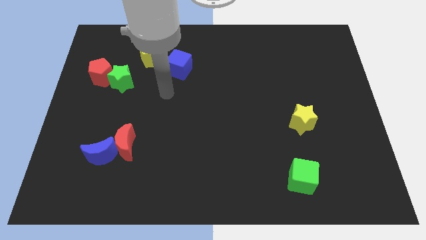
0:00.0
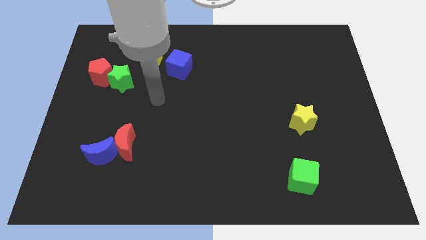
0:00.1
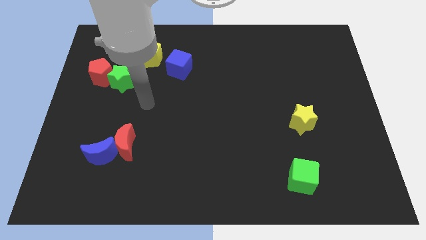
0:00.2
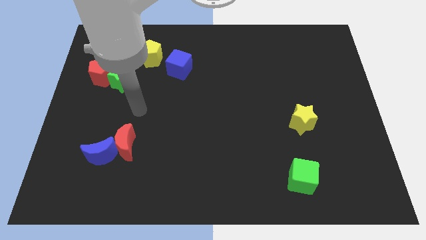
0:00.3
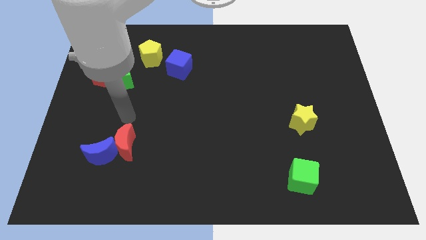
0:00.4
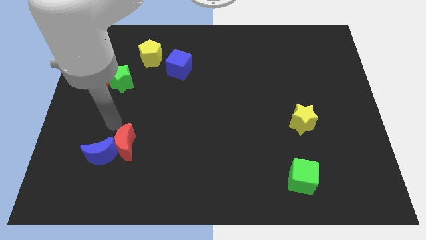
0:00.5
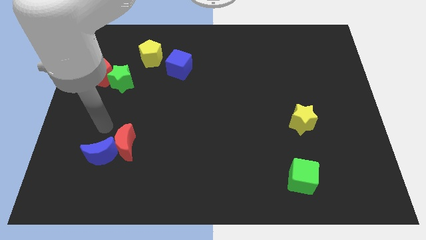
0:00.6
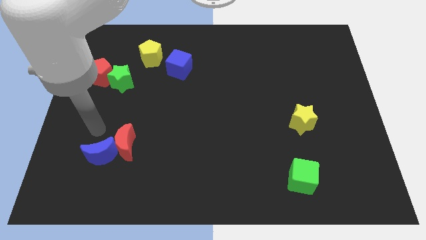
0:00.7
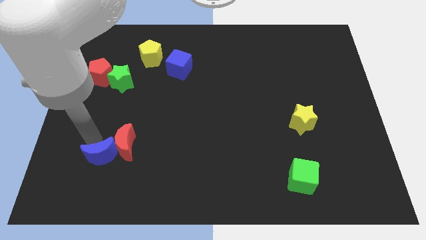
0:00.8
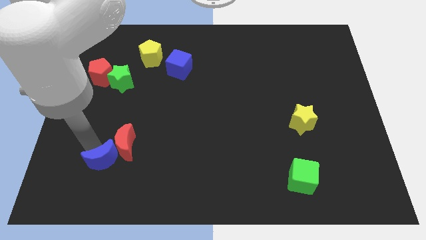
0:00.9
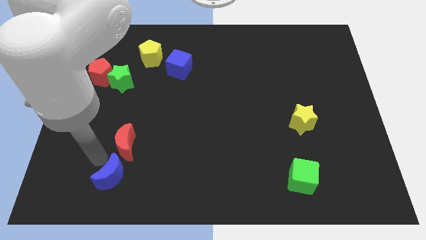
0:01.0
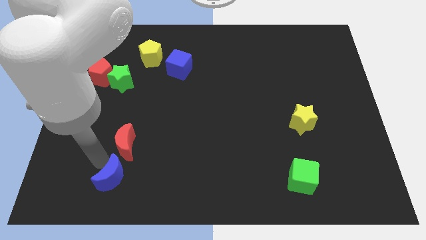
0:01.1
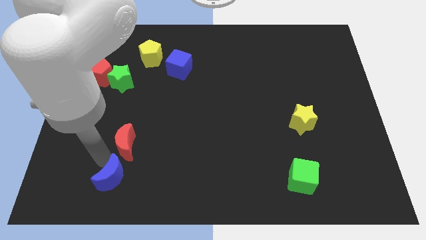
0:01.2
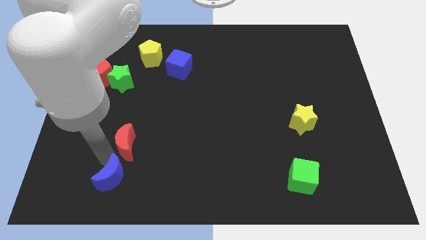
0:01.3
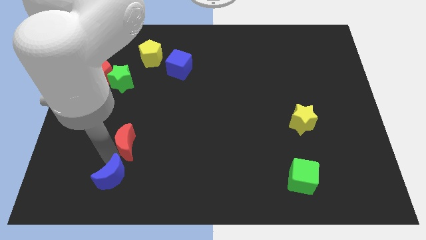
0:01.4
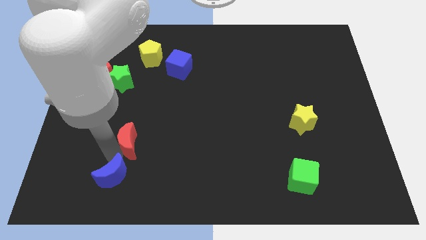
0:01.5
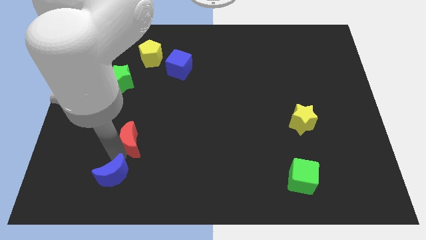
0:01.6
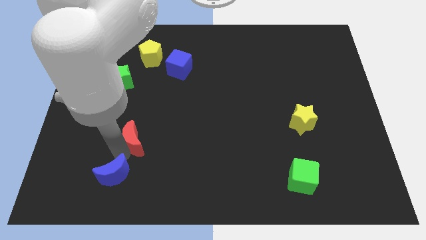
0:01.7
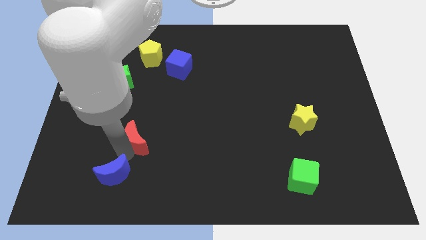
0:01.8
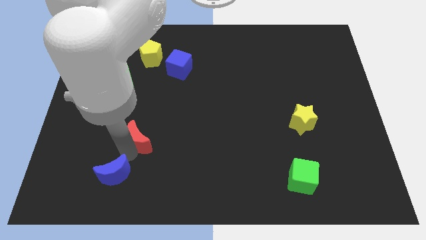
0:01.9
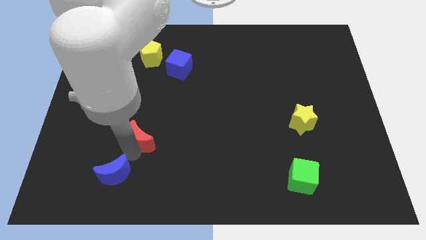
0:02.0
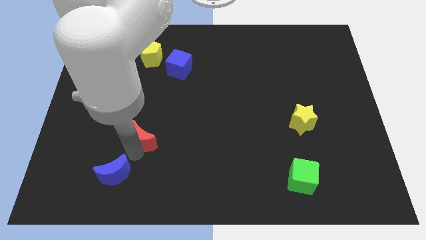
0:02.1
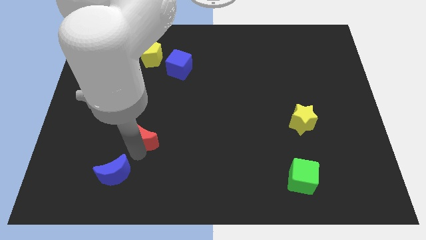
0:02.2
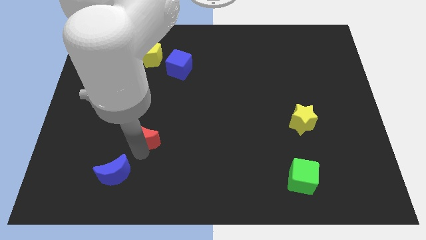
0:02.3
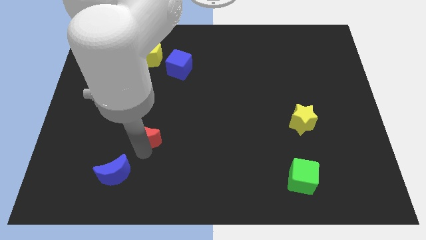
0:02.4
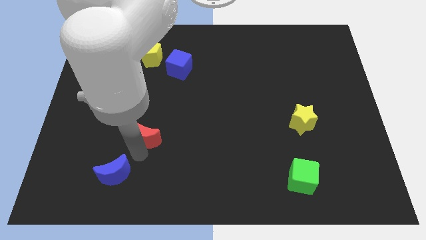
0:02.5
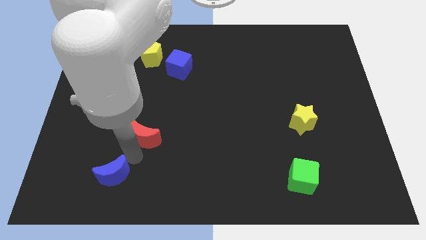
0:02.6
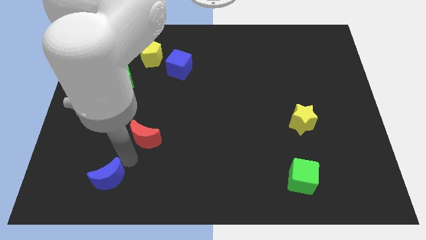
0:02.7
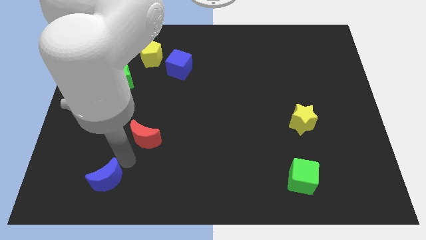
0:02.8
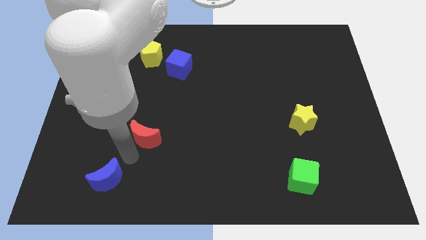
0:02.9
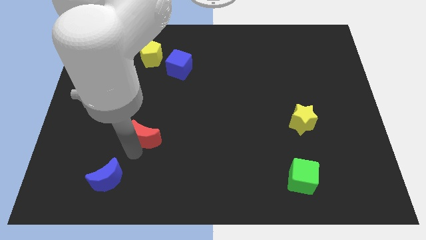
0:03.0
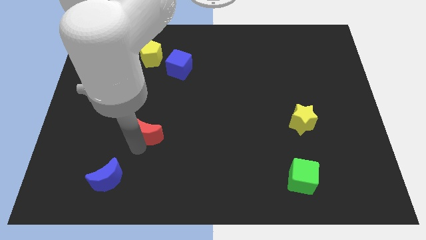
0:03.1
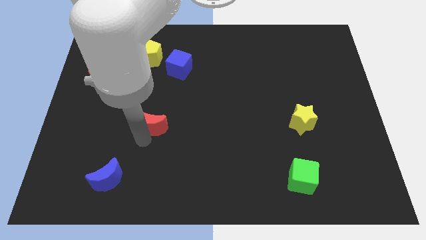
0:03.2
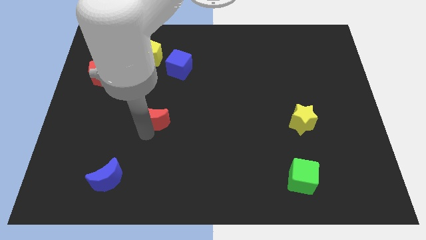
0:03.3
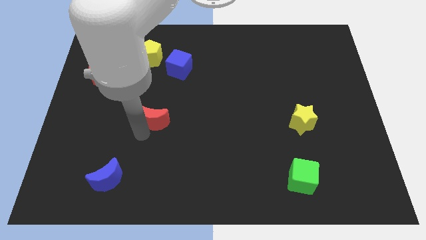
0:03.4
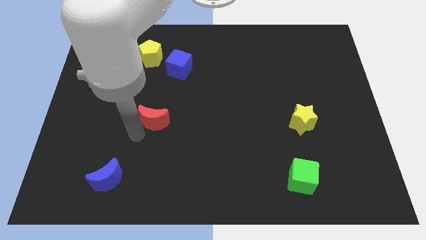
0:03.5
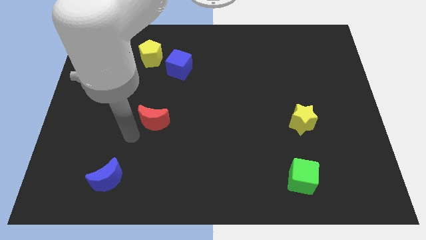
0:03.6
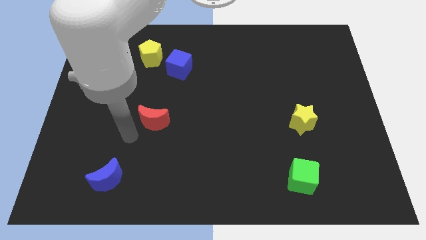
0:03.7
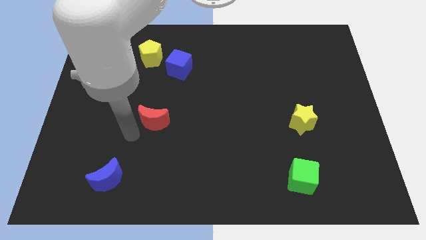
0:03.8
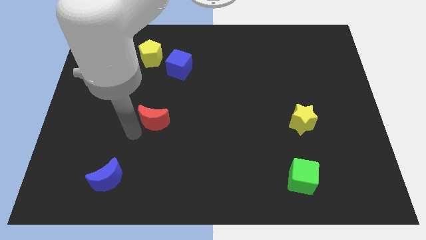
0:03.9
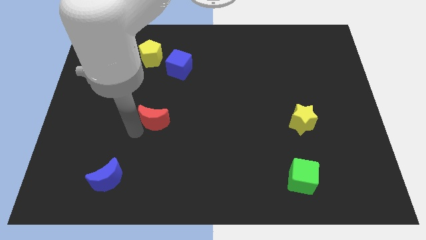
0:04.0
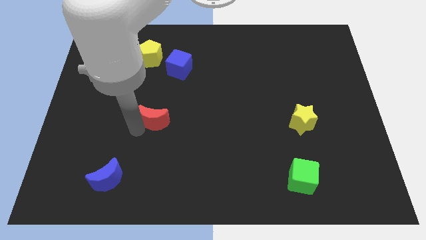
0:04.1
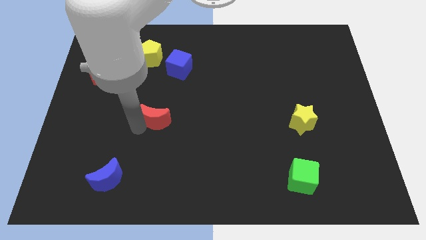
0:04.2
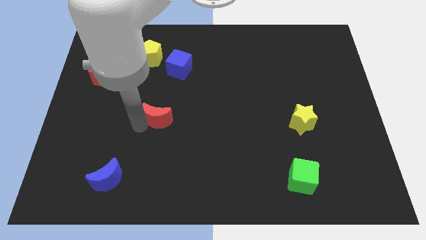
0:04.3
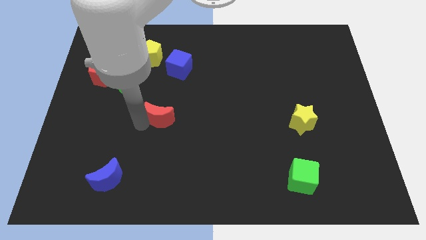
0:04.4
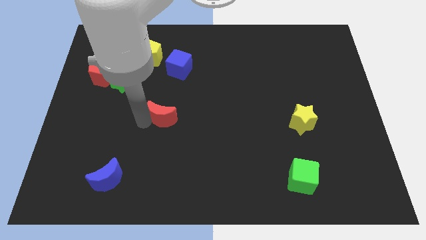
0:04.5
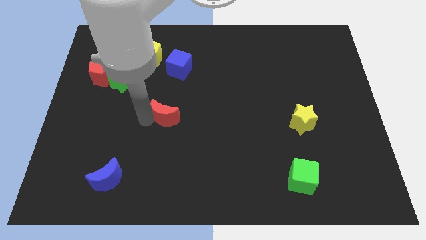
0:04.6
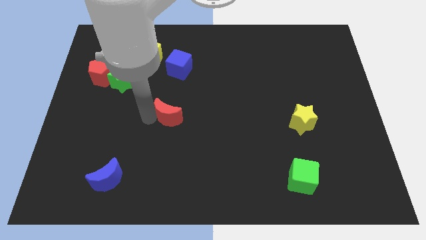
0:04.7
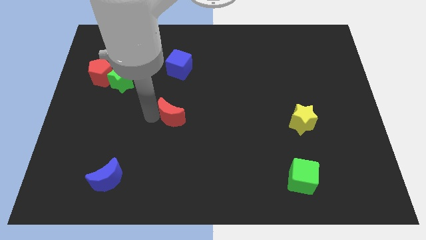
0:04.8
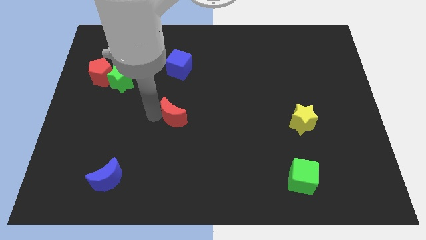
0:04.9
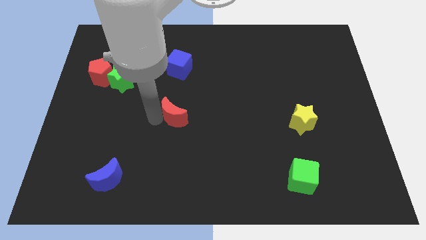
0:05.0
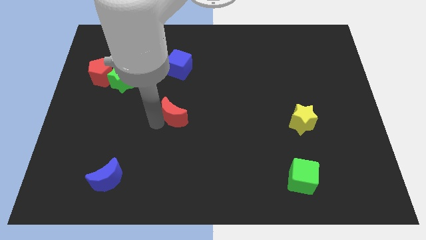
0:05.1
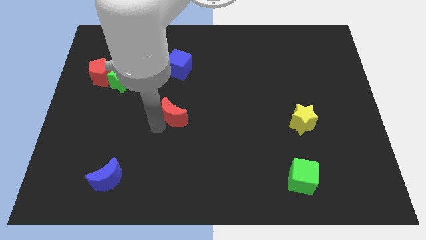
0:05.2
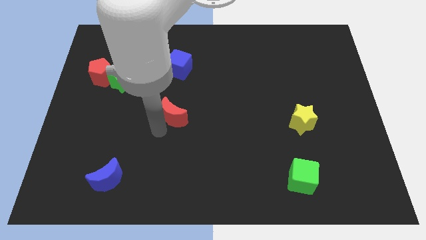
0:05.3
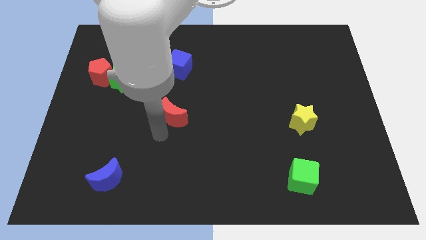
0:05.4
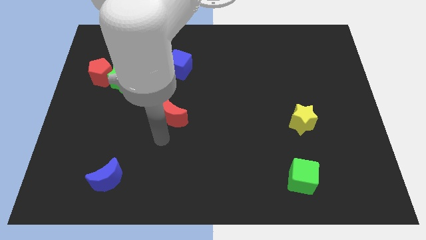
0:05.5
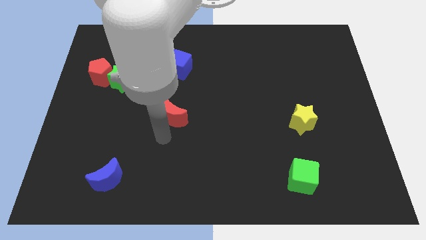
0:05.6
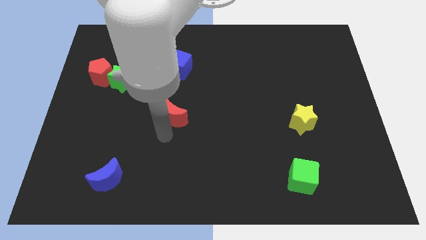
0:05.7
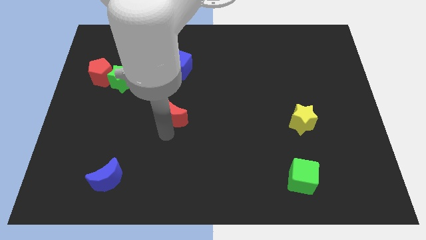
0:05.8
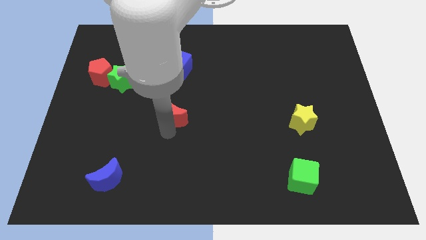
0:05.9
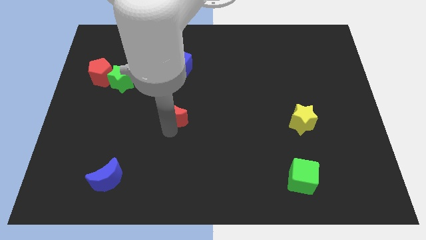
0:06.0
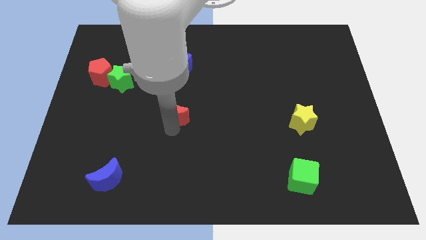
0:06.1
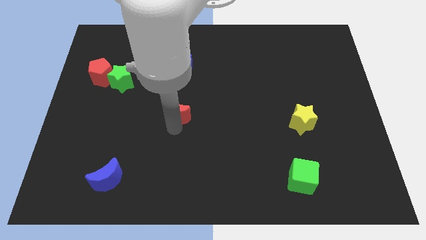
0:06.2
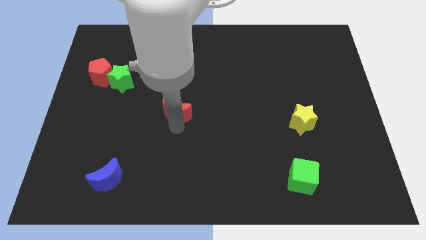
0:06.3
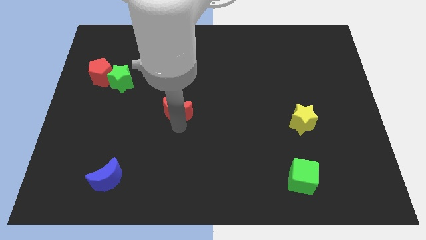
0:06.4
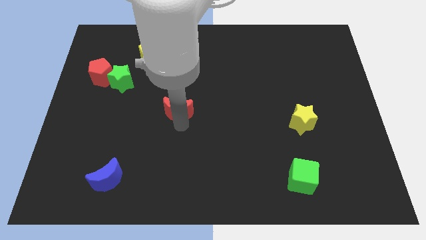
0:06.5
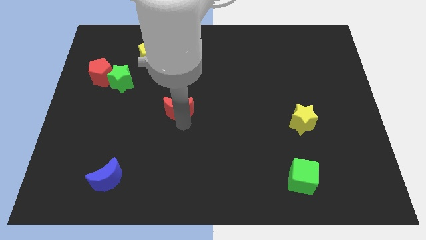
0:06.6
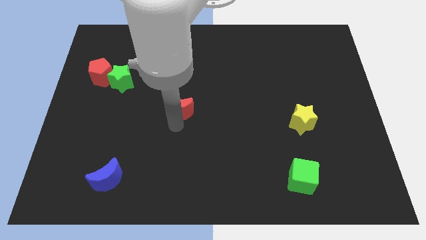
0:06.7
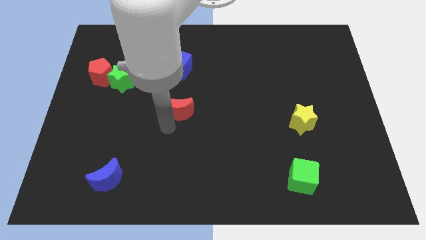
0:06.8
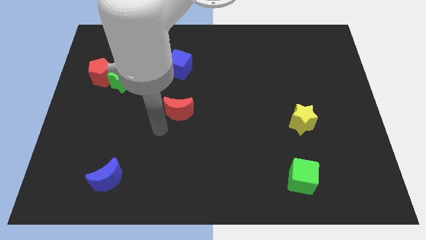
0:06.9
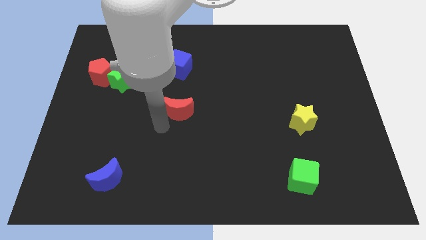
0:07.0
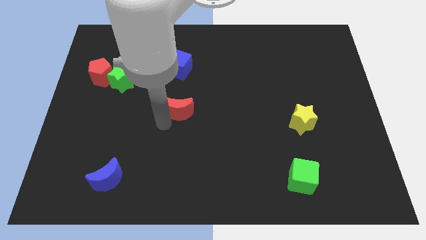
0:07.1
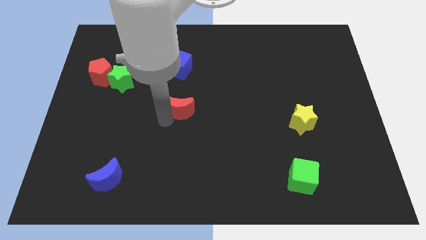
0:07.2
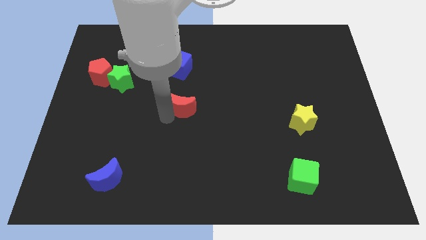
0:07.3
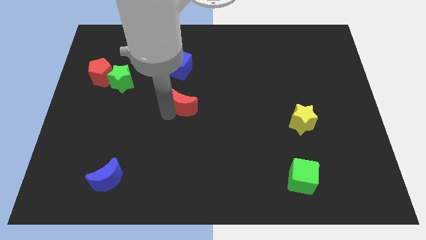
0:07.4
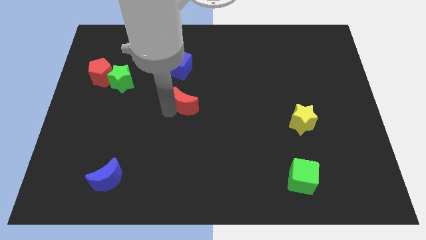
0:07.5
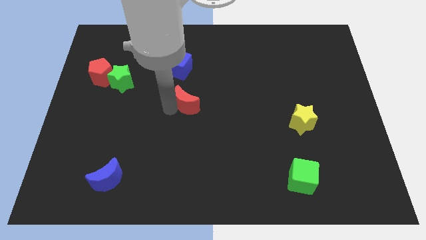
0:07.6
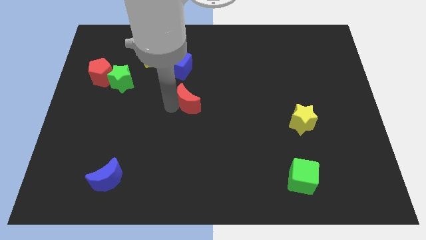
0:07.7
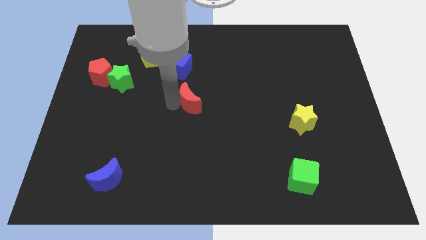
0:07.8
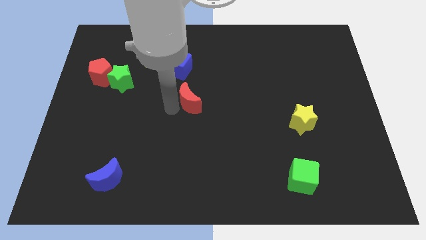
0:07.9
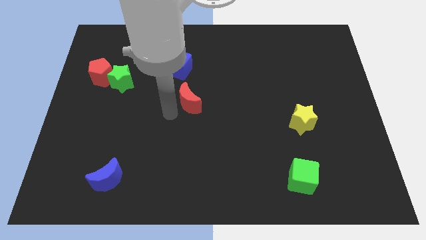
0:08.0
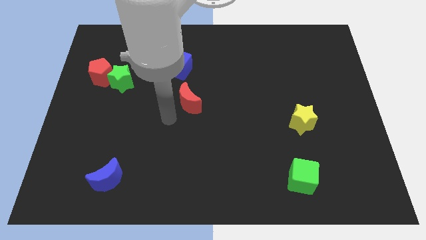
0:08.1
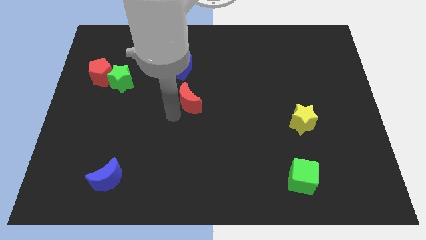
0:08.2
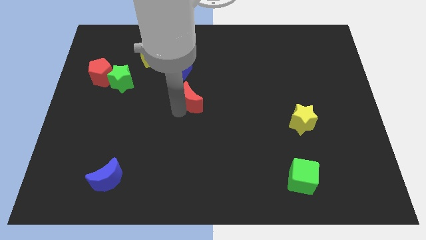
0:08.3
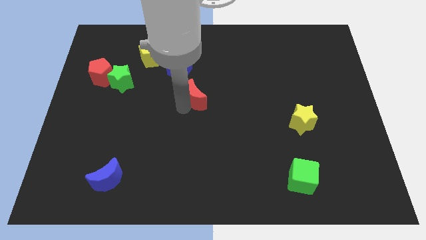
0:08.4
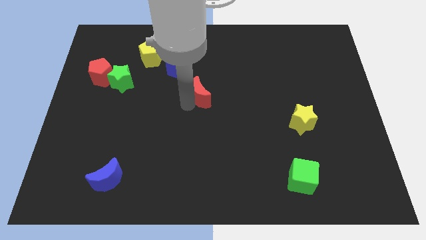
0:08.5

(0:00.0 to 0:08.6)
slide the red moon up and then right

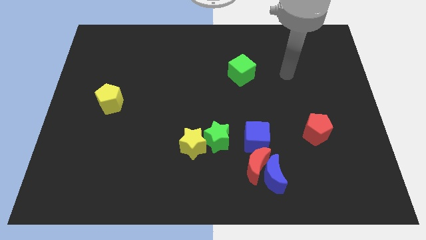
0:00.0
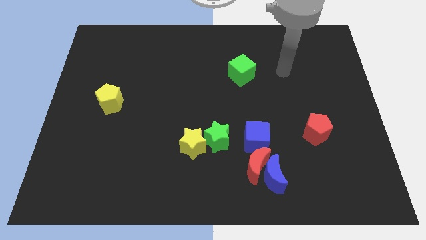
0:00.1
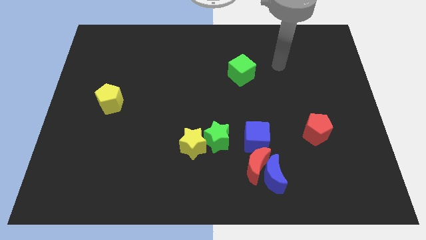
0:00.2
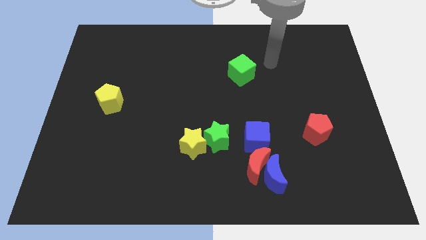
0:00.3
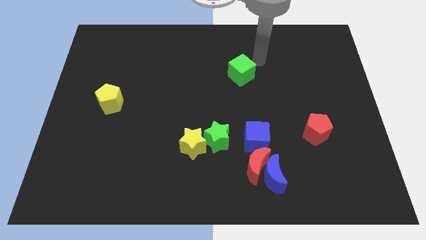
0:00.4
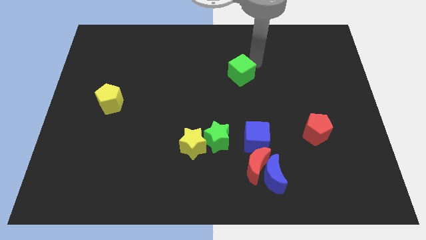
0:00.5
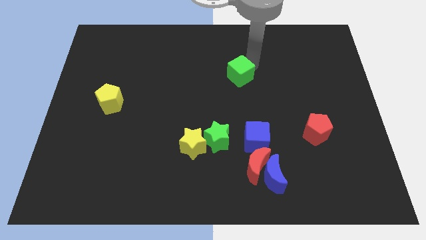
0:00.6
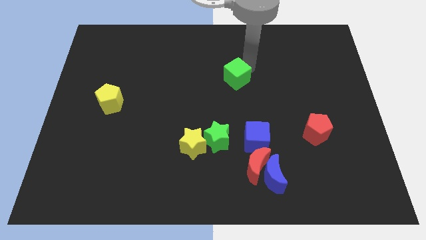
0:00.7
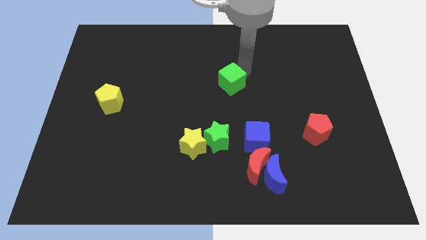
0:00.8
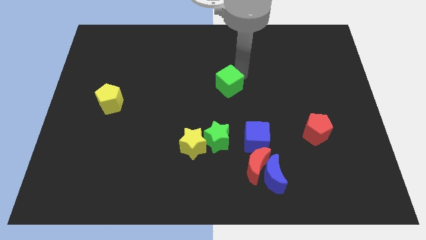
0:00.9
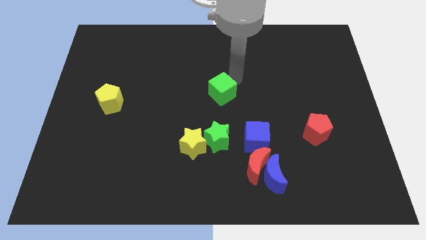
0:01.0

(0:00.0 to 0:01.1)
slightly move the green cube downwards and then left
